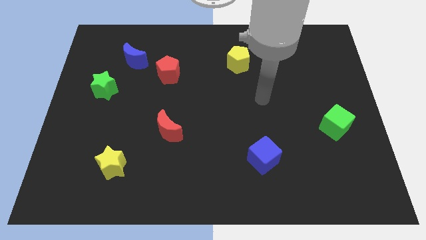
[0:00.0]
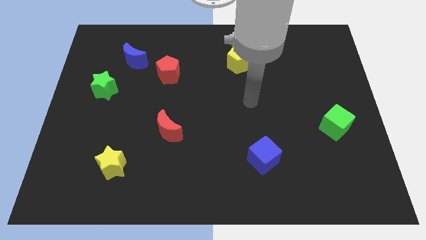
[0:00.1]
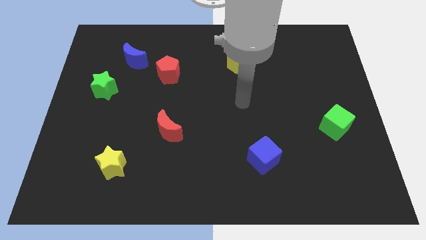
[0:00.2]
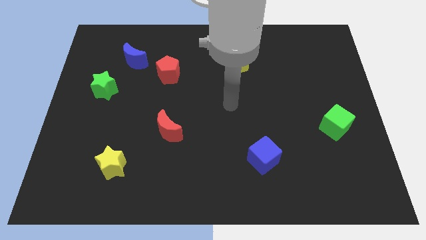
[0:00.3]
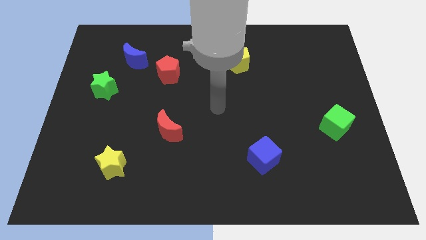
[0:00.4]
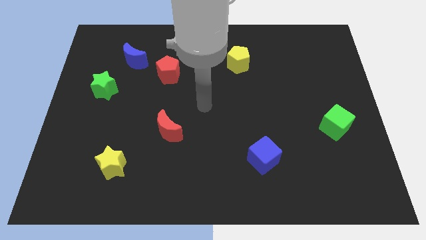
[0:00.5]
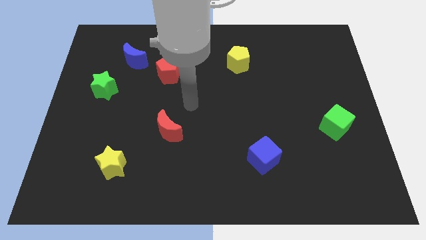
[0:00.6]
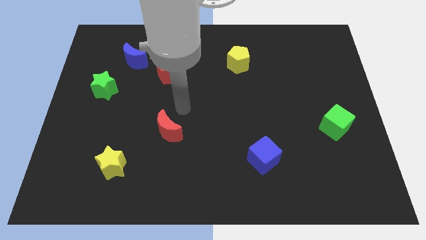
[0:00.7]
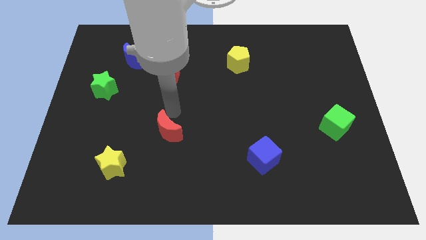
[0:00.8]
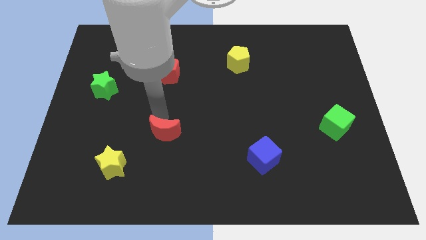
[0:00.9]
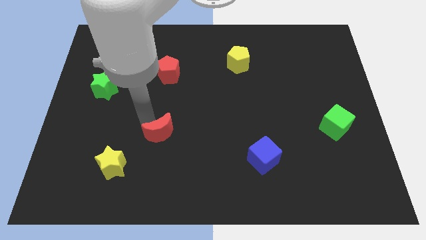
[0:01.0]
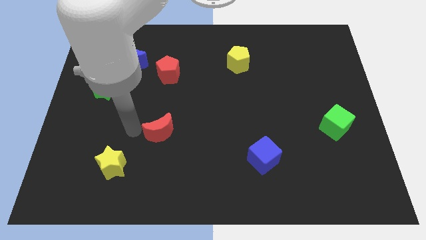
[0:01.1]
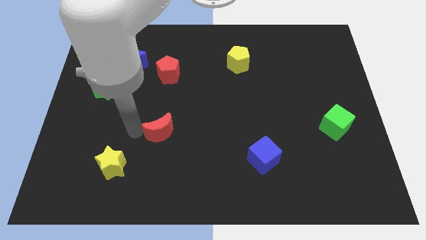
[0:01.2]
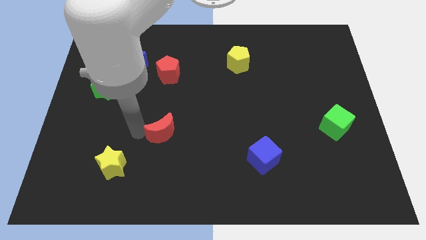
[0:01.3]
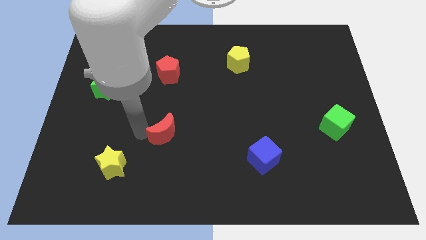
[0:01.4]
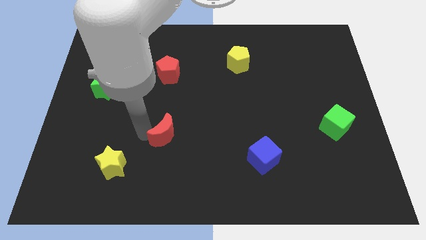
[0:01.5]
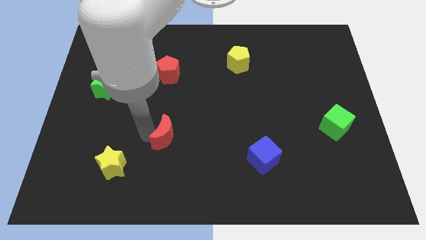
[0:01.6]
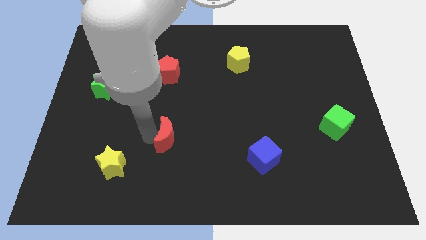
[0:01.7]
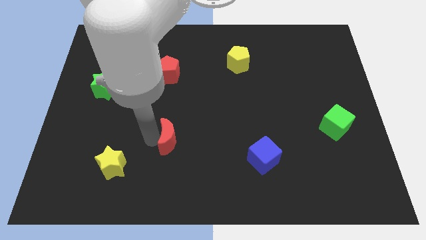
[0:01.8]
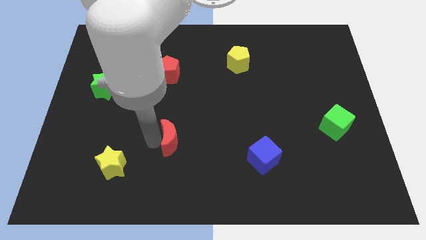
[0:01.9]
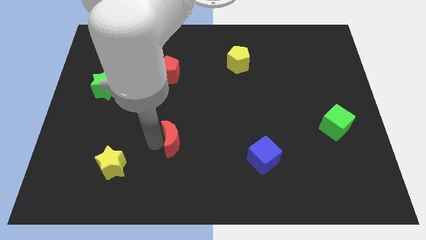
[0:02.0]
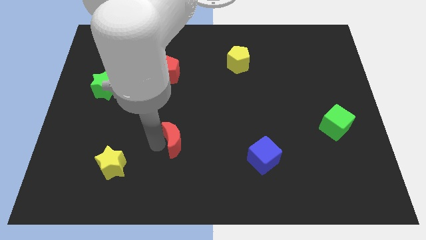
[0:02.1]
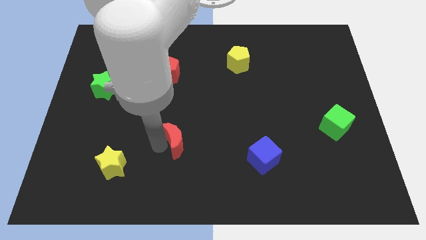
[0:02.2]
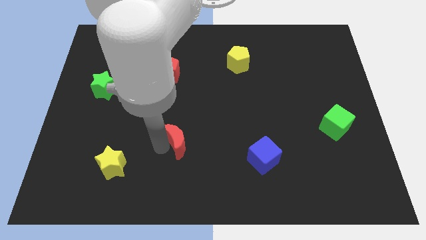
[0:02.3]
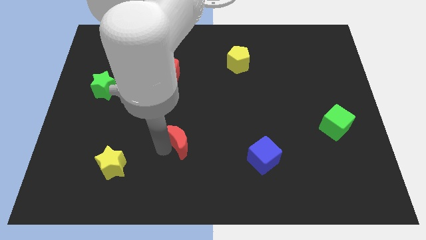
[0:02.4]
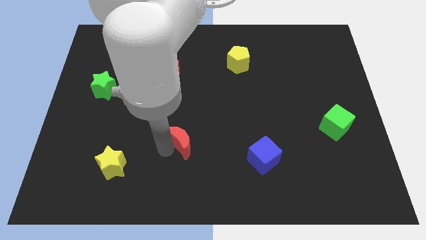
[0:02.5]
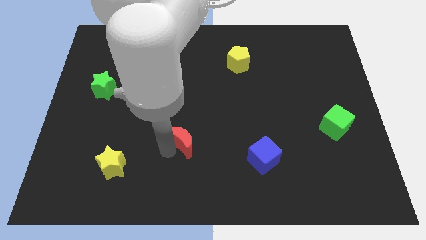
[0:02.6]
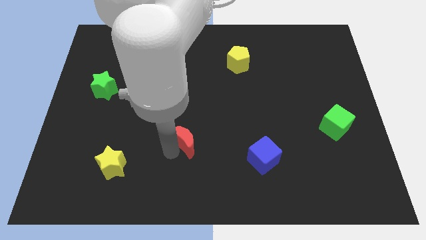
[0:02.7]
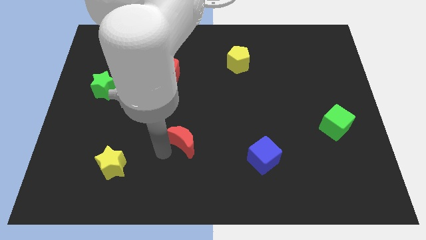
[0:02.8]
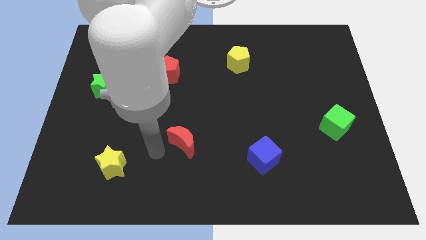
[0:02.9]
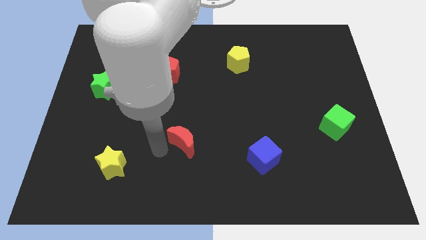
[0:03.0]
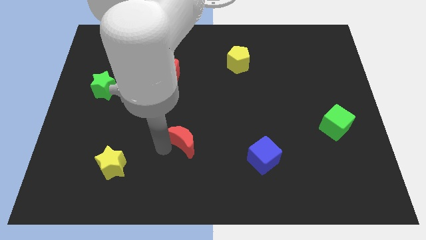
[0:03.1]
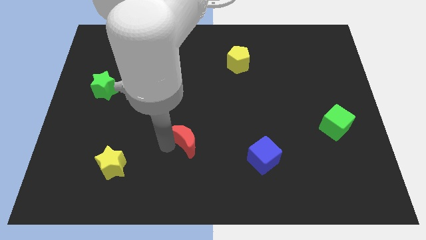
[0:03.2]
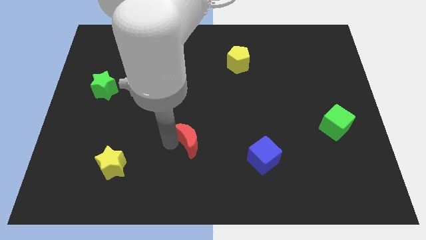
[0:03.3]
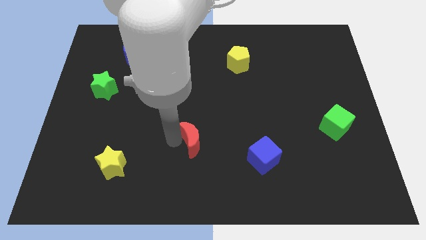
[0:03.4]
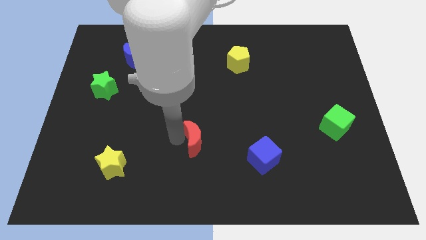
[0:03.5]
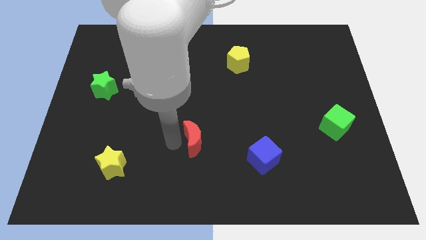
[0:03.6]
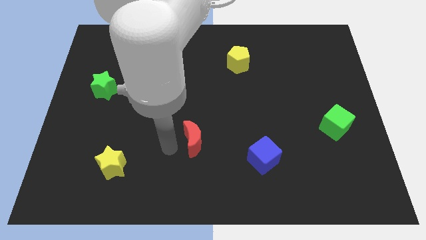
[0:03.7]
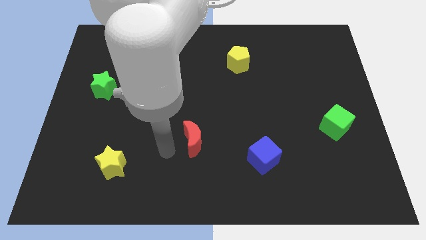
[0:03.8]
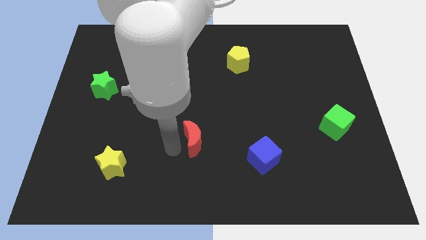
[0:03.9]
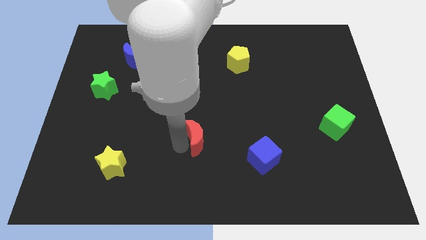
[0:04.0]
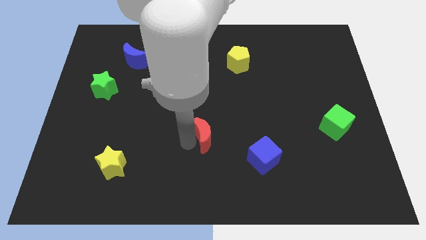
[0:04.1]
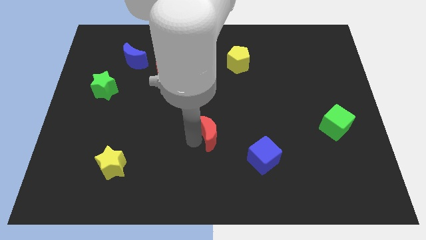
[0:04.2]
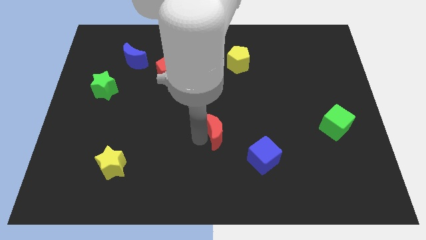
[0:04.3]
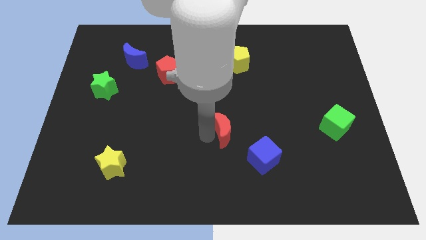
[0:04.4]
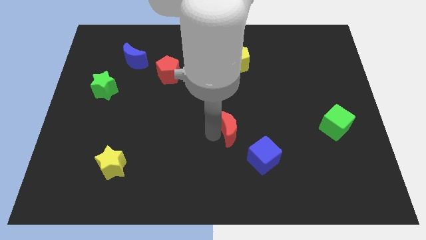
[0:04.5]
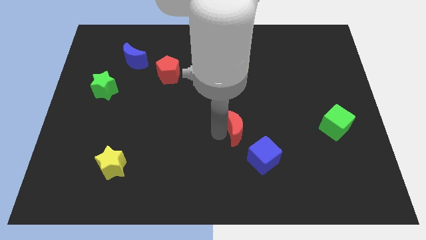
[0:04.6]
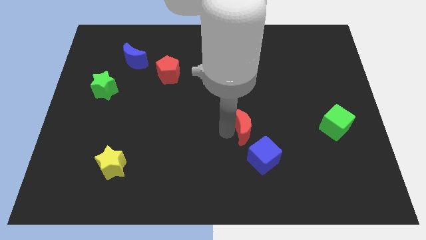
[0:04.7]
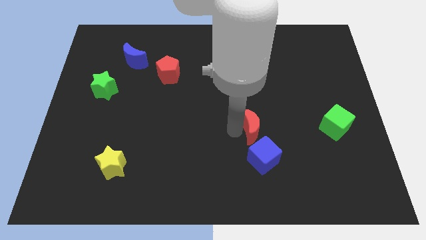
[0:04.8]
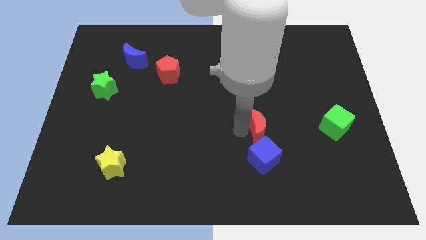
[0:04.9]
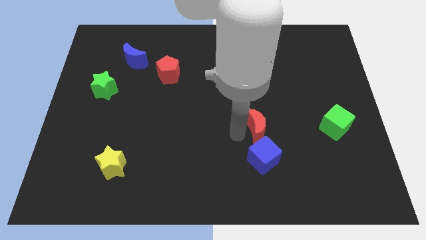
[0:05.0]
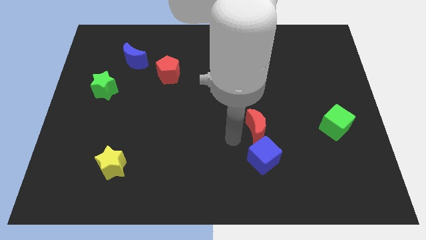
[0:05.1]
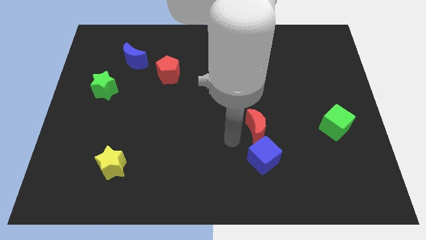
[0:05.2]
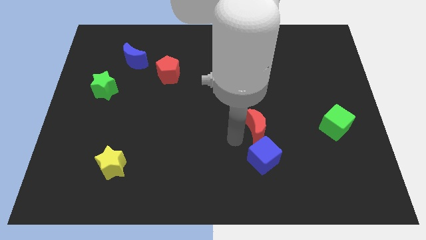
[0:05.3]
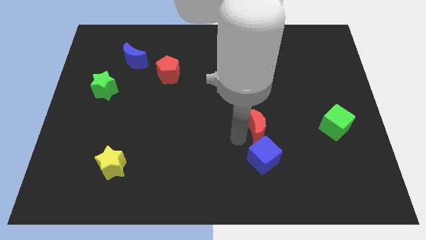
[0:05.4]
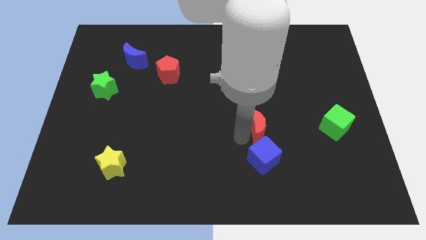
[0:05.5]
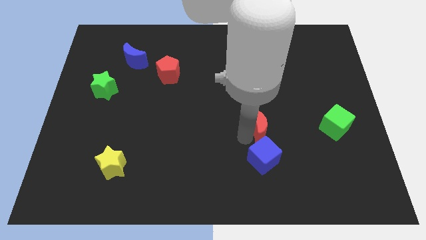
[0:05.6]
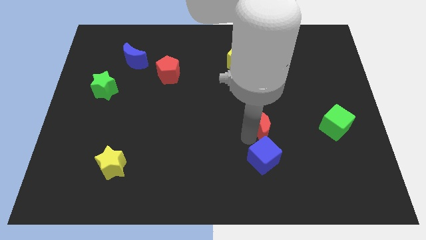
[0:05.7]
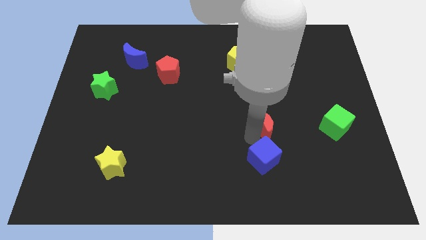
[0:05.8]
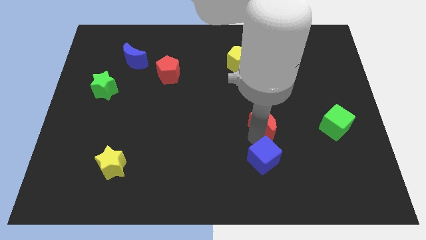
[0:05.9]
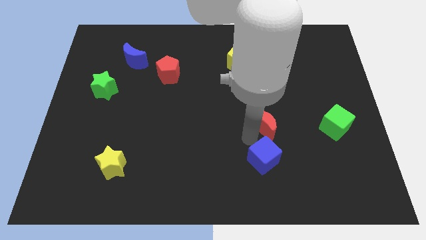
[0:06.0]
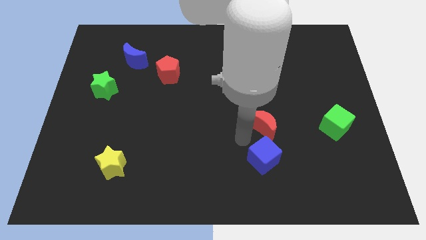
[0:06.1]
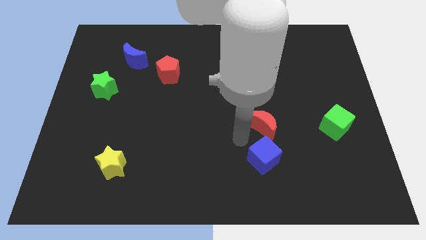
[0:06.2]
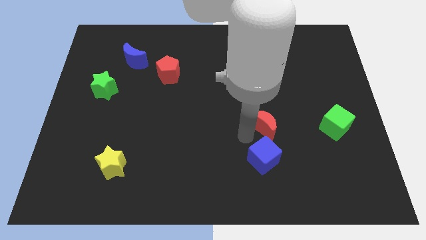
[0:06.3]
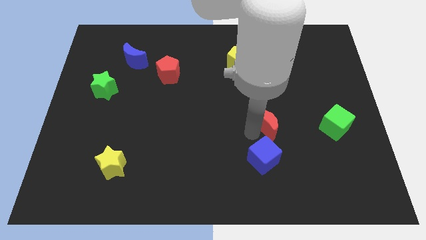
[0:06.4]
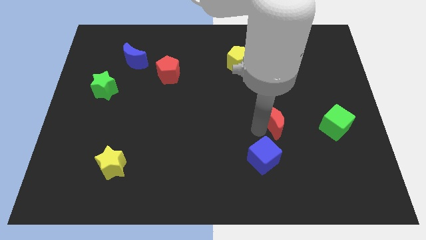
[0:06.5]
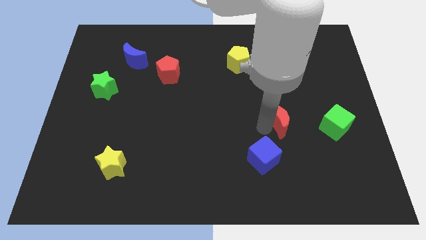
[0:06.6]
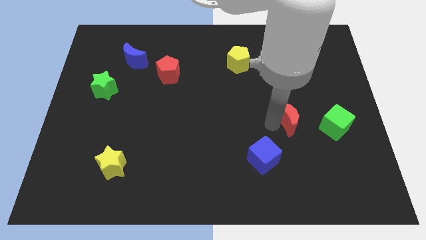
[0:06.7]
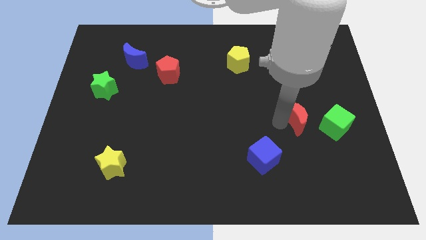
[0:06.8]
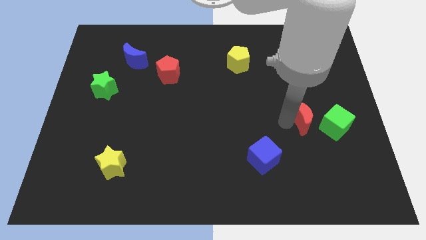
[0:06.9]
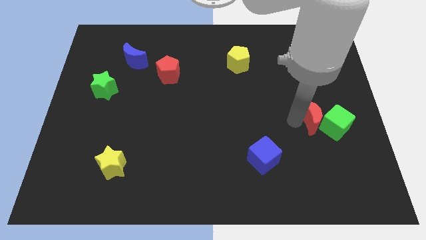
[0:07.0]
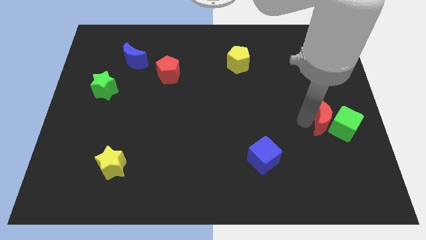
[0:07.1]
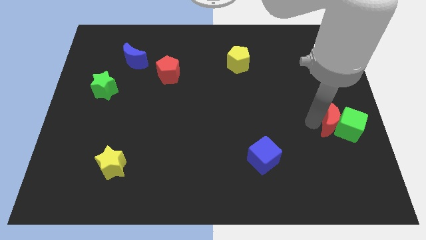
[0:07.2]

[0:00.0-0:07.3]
slide the red moon to the right side of the board
